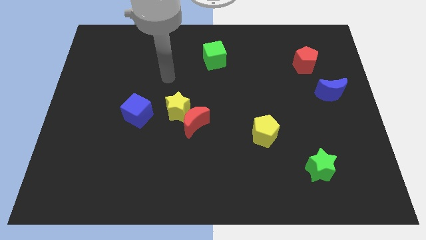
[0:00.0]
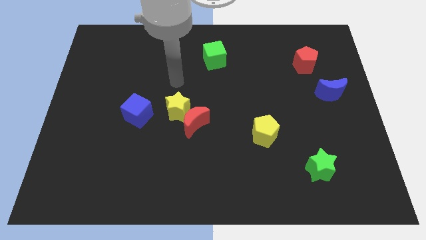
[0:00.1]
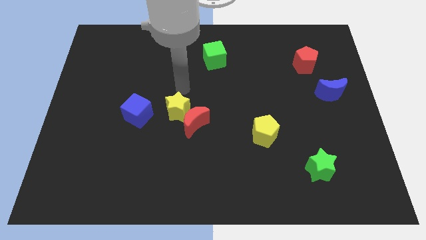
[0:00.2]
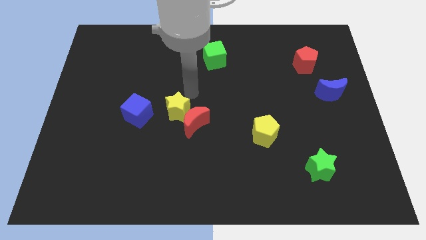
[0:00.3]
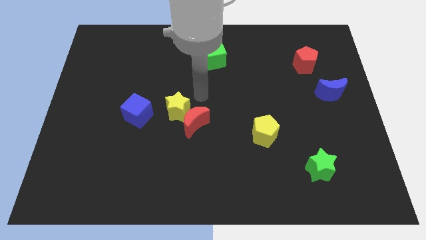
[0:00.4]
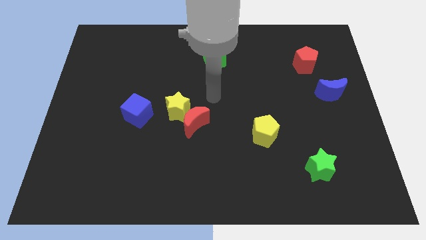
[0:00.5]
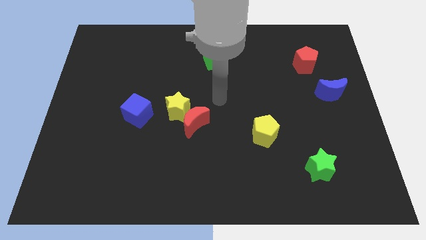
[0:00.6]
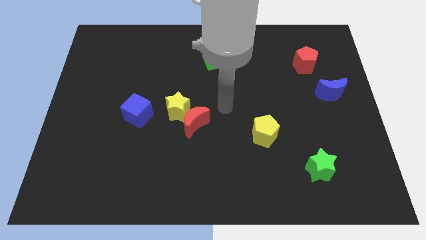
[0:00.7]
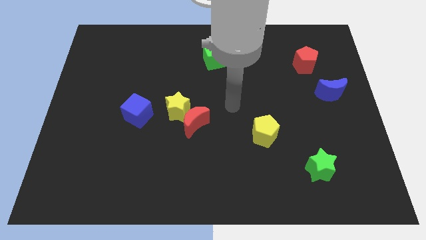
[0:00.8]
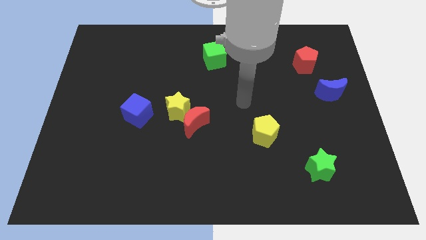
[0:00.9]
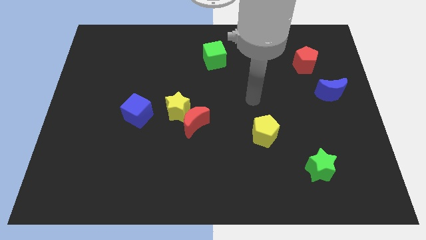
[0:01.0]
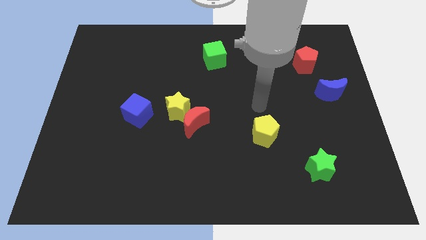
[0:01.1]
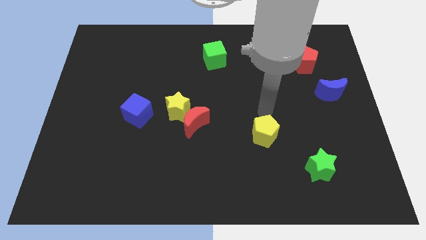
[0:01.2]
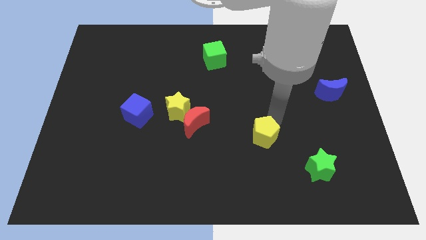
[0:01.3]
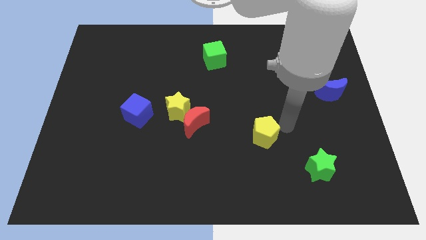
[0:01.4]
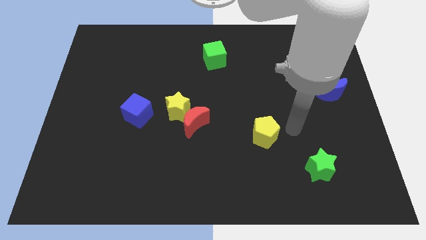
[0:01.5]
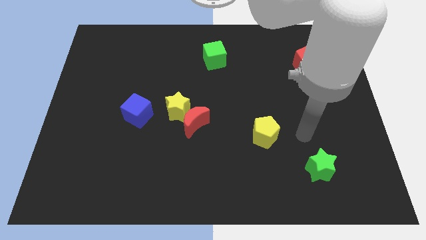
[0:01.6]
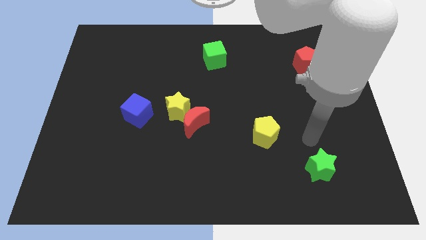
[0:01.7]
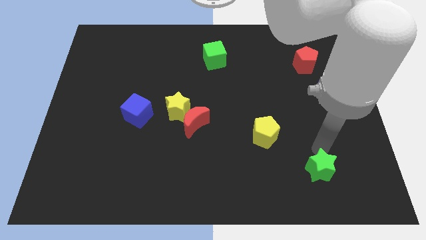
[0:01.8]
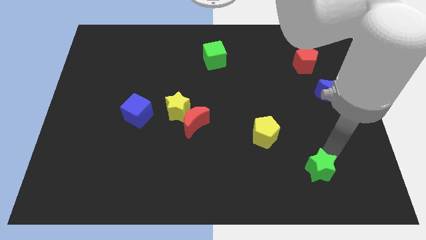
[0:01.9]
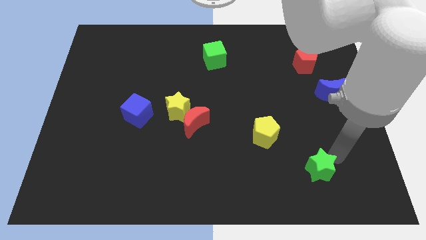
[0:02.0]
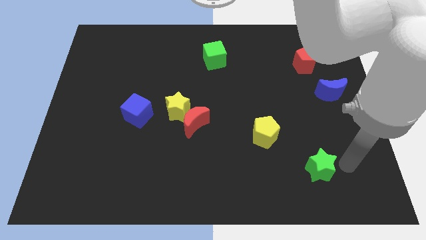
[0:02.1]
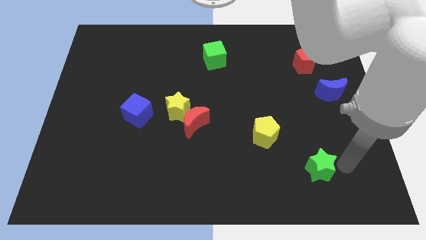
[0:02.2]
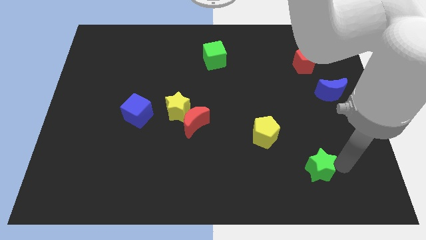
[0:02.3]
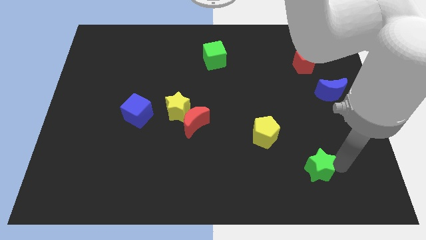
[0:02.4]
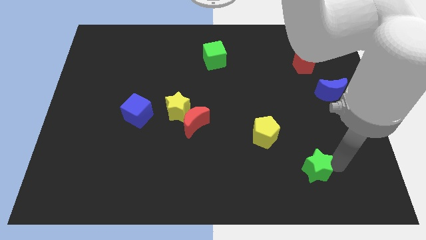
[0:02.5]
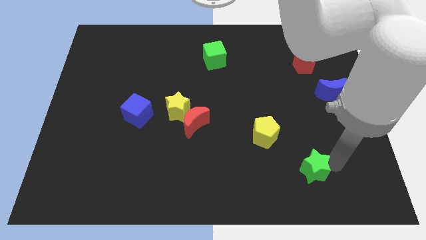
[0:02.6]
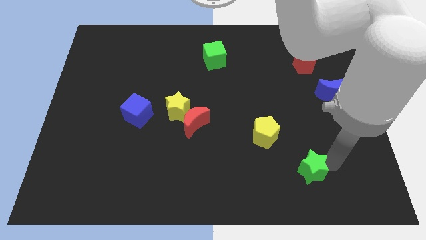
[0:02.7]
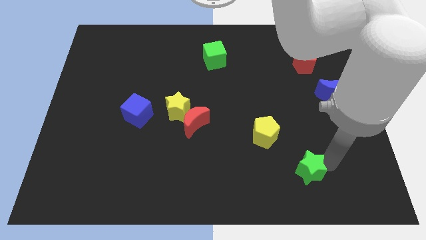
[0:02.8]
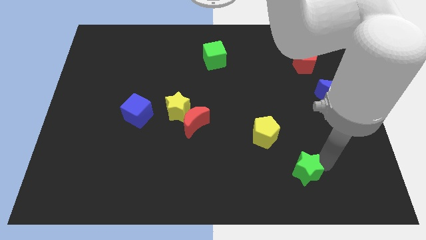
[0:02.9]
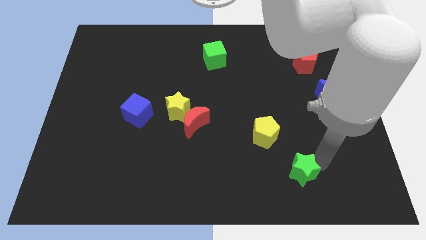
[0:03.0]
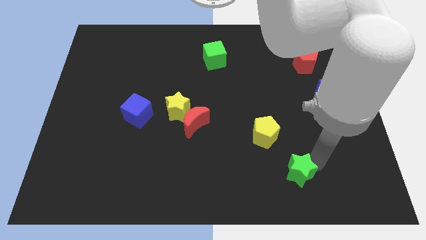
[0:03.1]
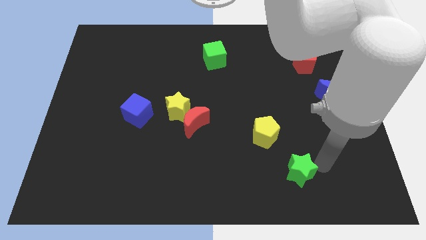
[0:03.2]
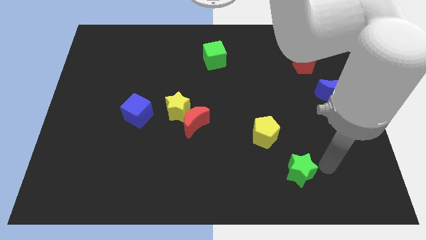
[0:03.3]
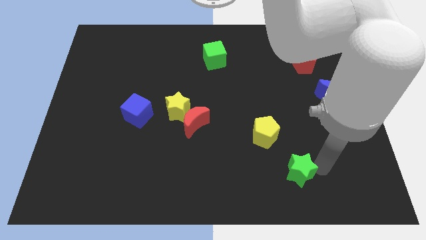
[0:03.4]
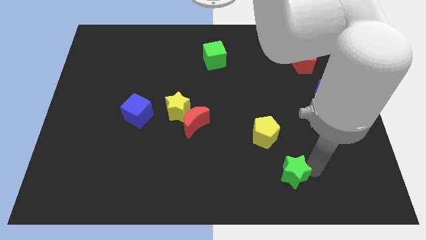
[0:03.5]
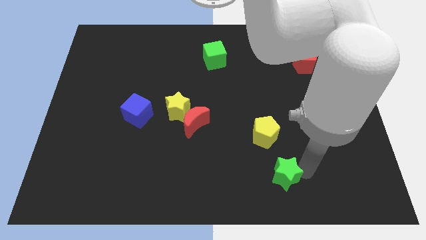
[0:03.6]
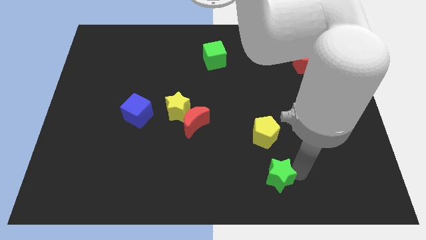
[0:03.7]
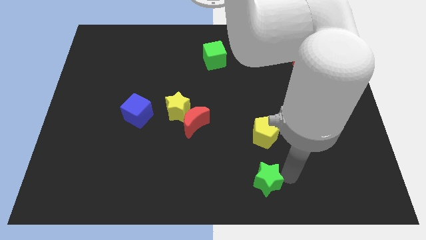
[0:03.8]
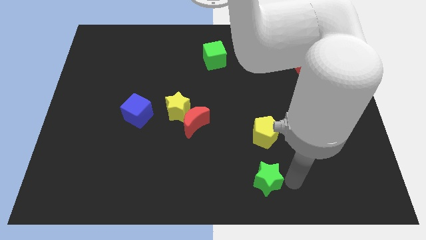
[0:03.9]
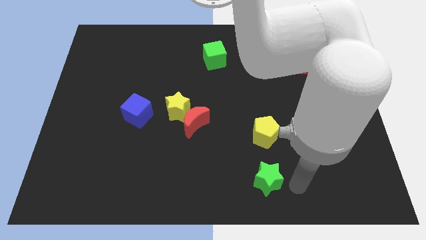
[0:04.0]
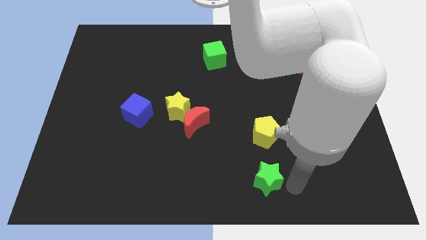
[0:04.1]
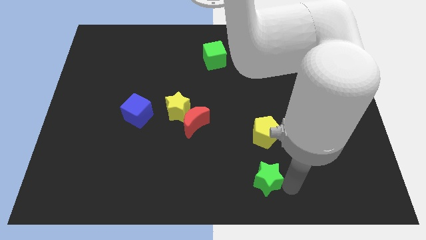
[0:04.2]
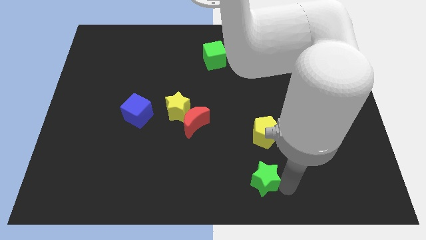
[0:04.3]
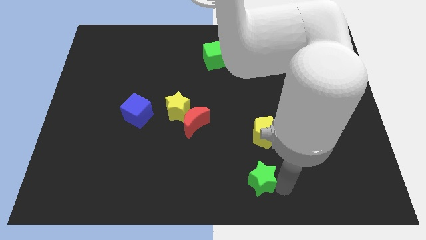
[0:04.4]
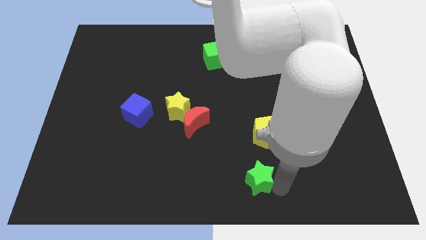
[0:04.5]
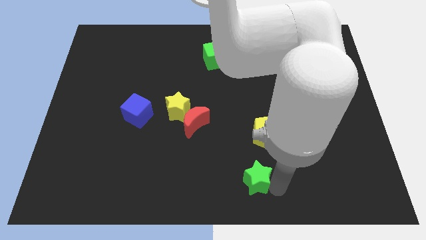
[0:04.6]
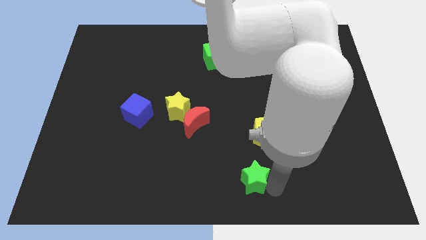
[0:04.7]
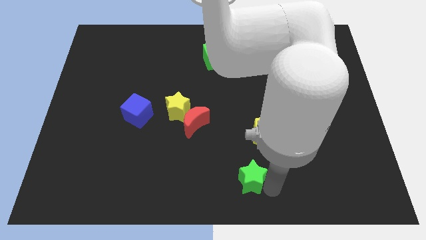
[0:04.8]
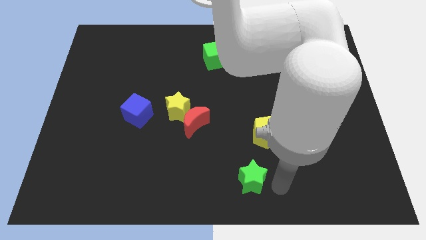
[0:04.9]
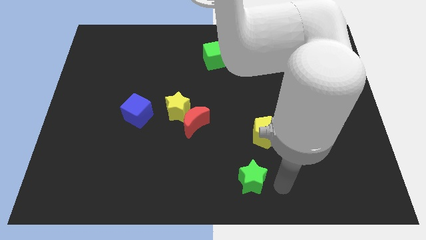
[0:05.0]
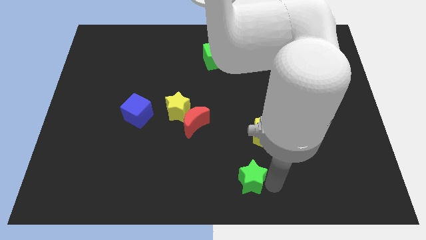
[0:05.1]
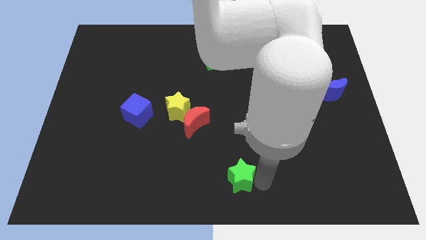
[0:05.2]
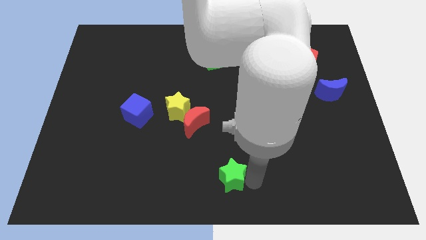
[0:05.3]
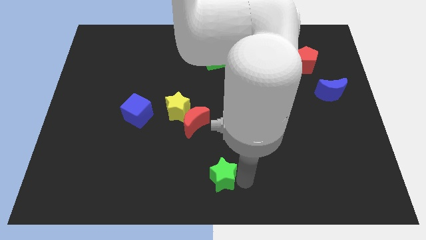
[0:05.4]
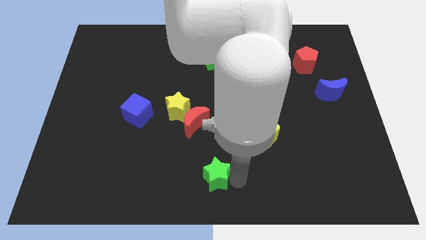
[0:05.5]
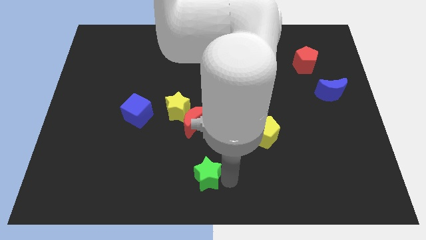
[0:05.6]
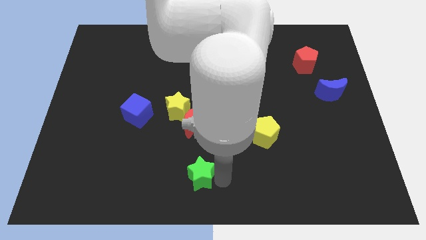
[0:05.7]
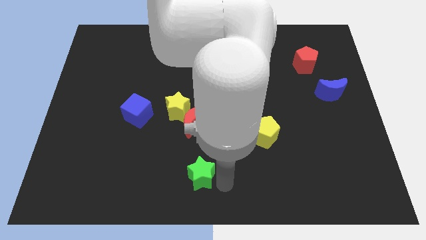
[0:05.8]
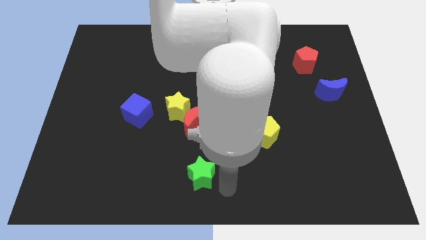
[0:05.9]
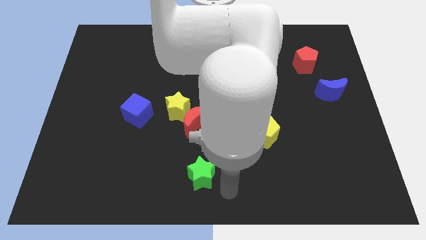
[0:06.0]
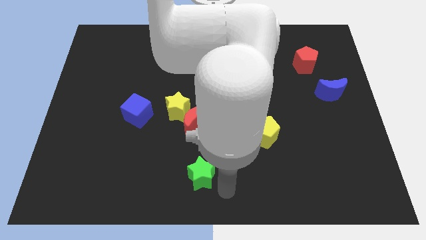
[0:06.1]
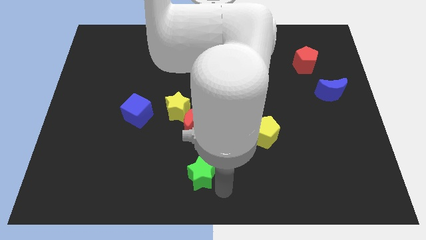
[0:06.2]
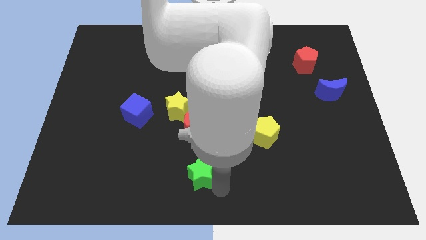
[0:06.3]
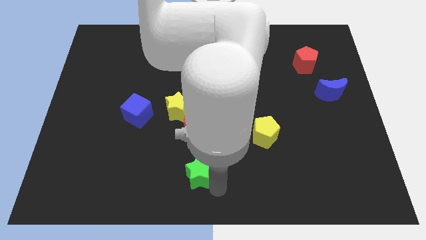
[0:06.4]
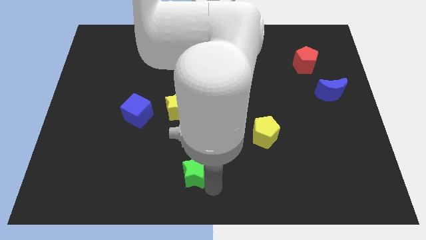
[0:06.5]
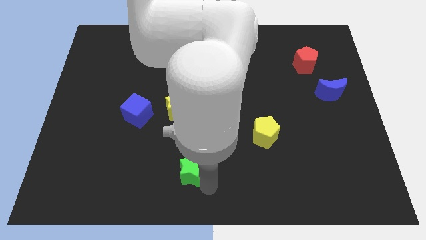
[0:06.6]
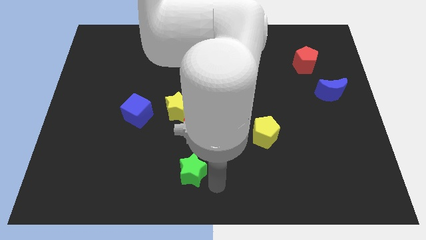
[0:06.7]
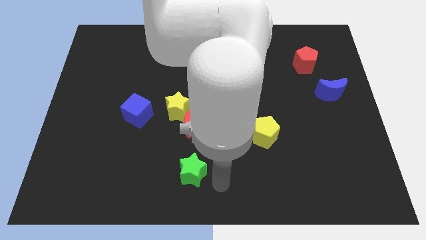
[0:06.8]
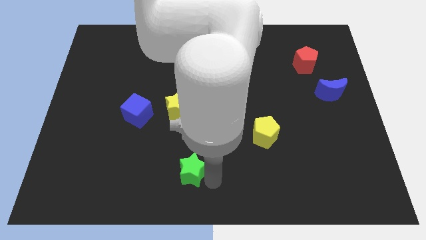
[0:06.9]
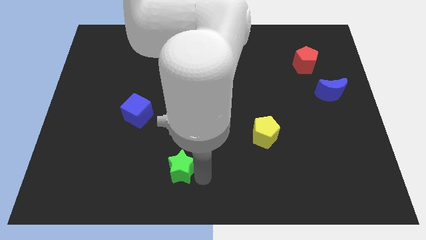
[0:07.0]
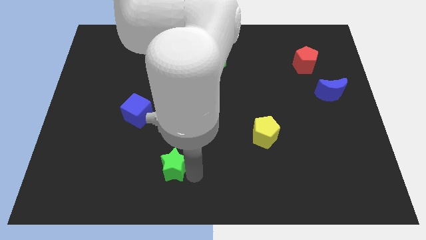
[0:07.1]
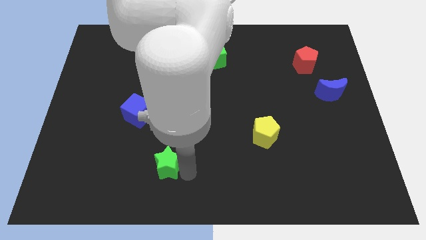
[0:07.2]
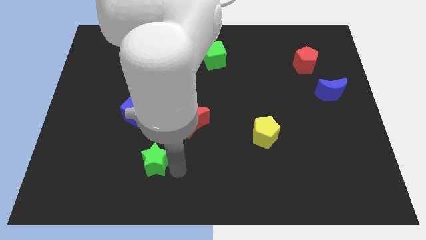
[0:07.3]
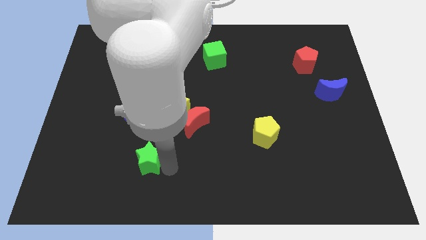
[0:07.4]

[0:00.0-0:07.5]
put the green star to the bottom of the blue cube
